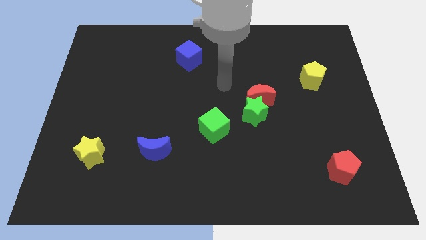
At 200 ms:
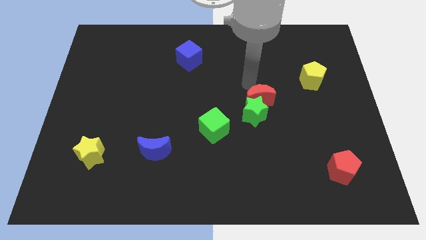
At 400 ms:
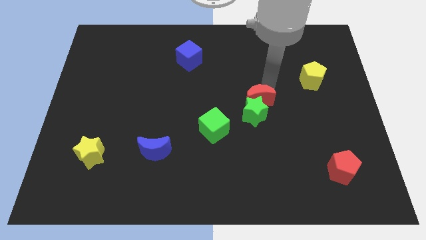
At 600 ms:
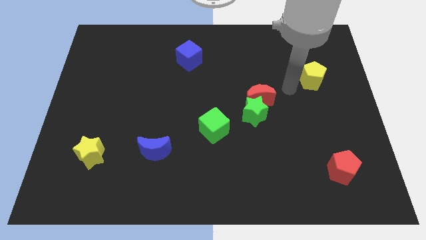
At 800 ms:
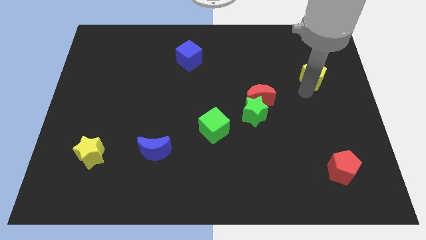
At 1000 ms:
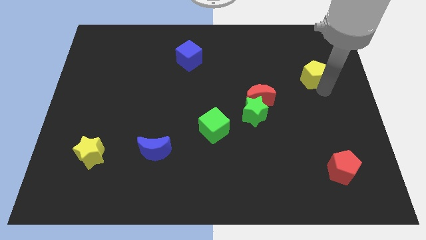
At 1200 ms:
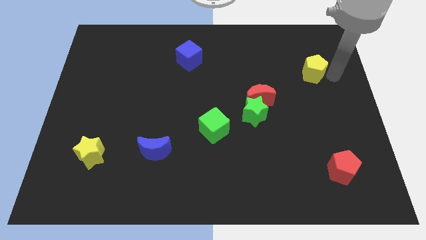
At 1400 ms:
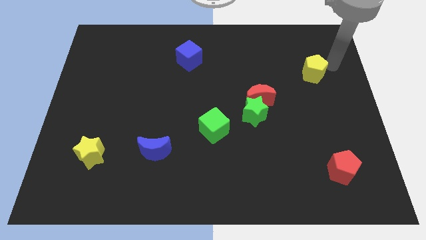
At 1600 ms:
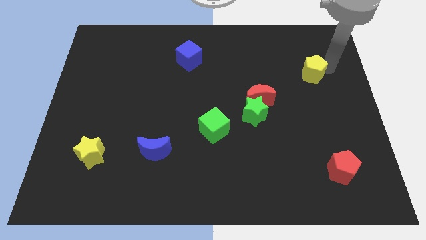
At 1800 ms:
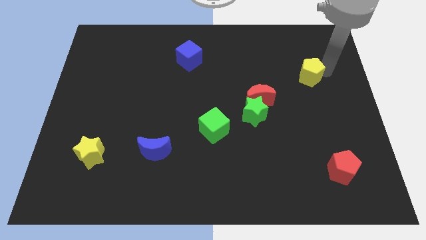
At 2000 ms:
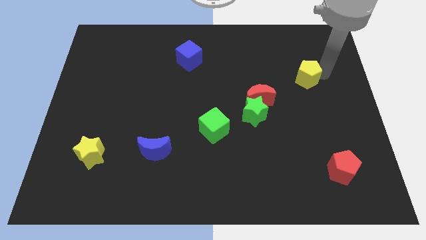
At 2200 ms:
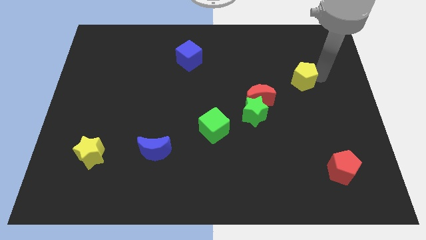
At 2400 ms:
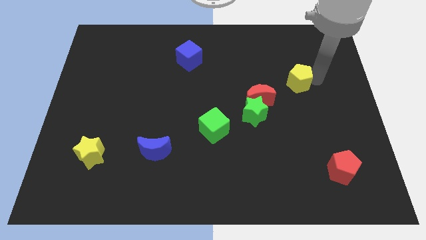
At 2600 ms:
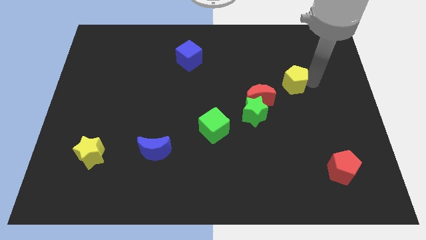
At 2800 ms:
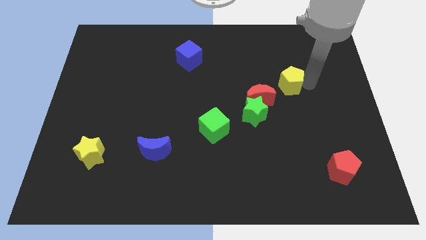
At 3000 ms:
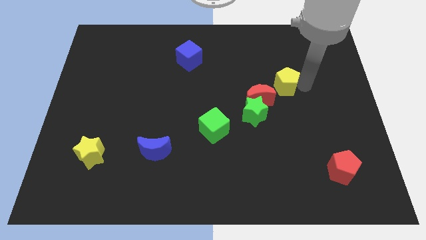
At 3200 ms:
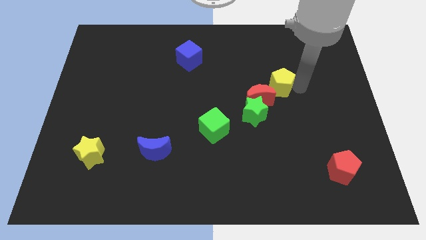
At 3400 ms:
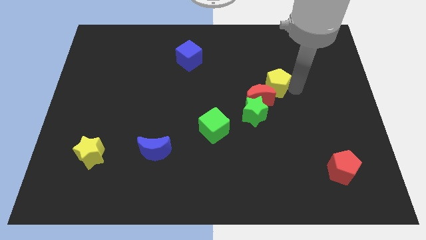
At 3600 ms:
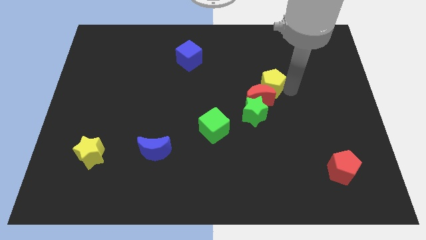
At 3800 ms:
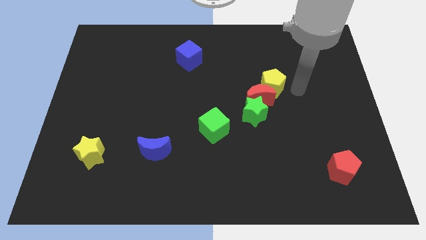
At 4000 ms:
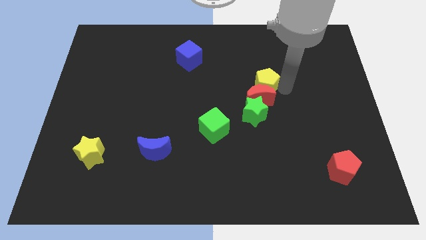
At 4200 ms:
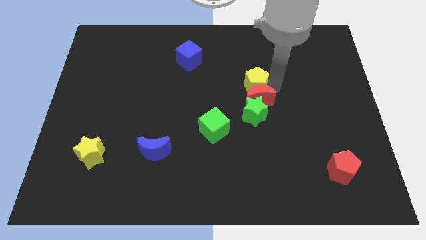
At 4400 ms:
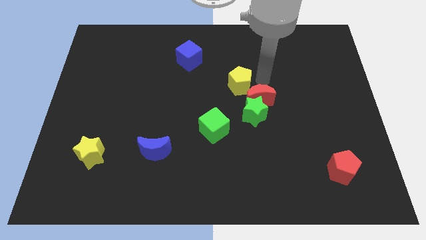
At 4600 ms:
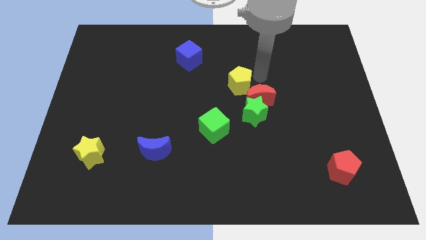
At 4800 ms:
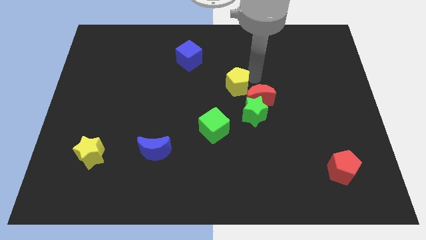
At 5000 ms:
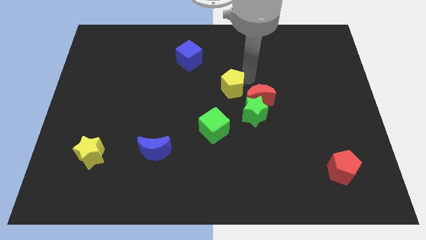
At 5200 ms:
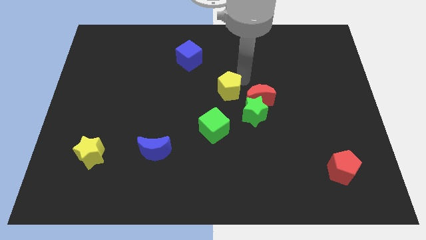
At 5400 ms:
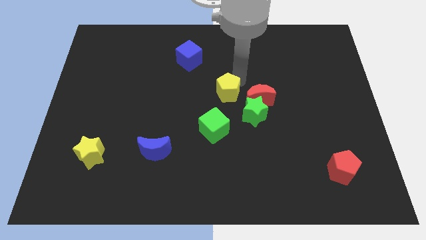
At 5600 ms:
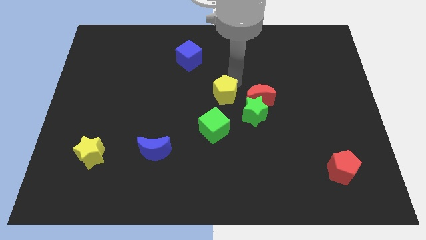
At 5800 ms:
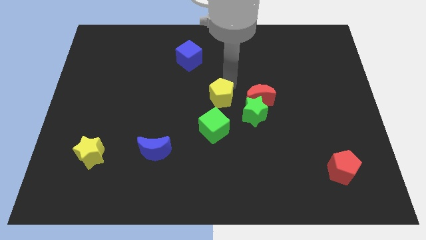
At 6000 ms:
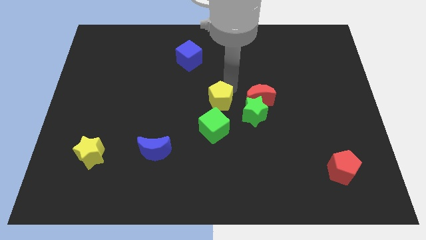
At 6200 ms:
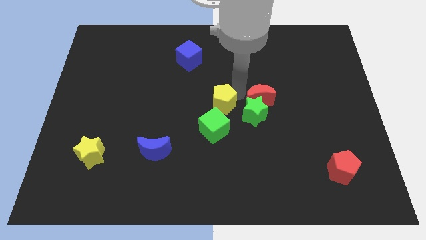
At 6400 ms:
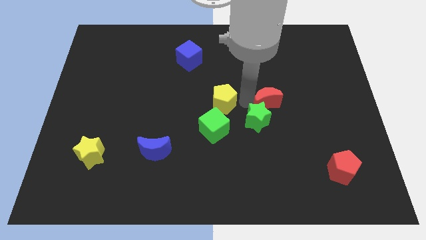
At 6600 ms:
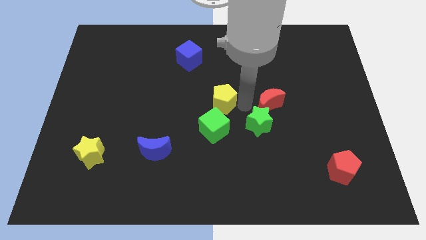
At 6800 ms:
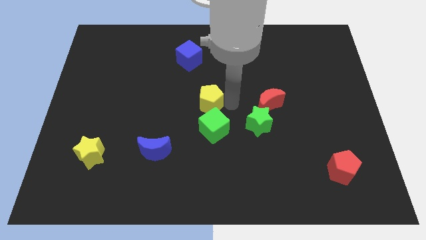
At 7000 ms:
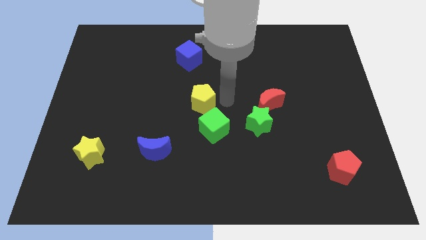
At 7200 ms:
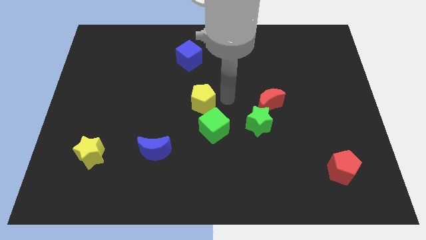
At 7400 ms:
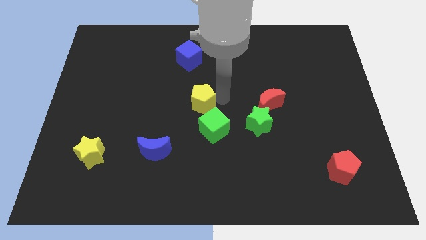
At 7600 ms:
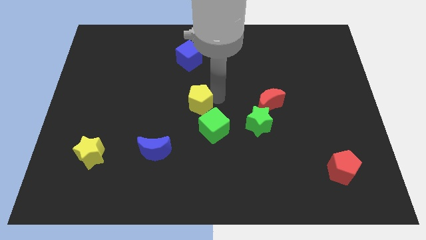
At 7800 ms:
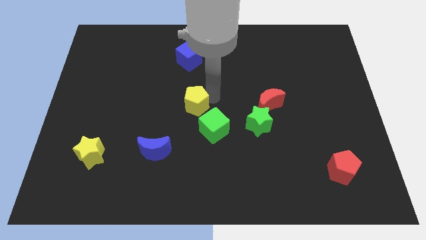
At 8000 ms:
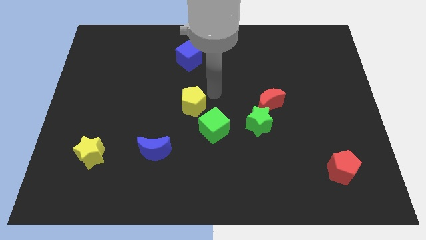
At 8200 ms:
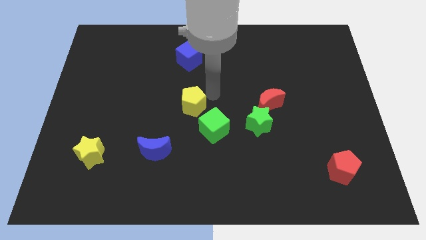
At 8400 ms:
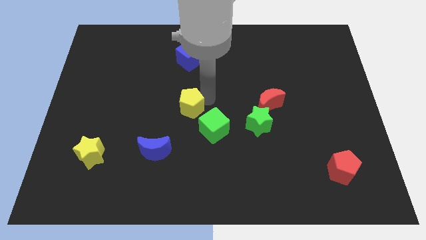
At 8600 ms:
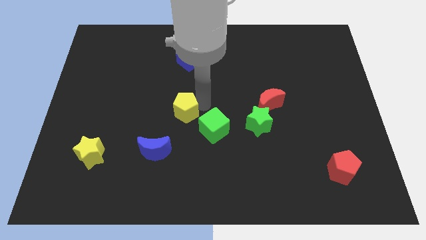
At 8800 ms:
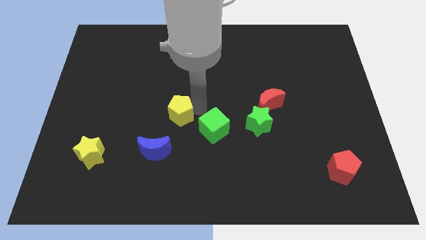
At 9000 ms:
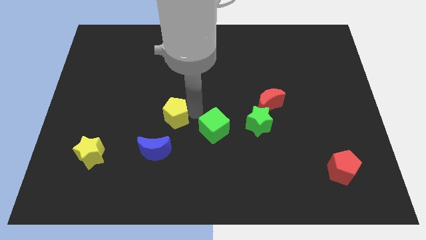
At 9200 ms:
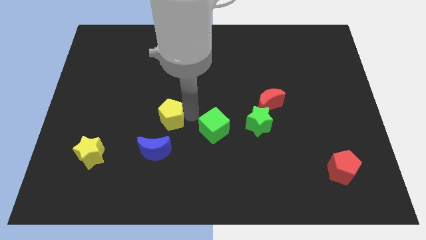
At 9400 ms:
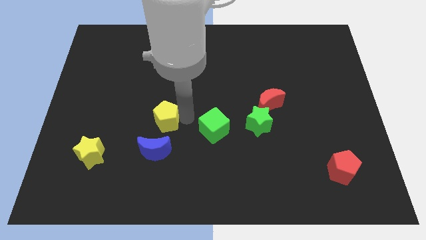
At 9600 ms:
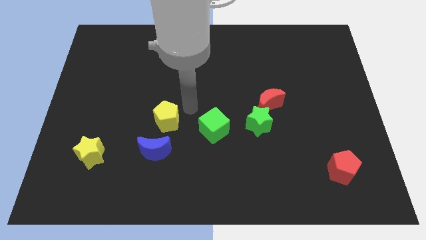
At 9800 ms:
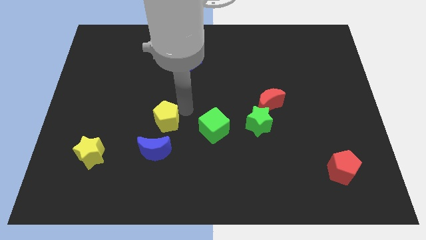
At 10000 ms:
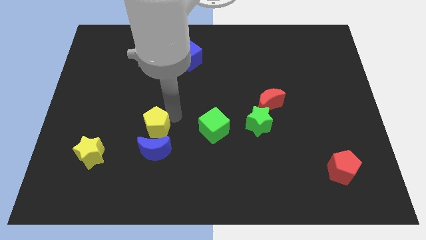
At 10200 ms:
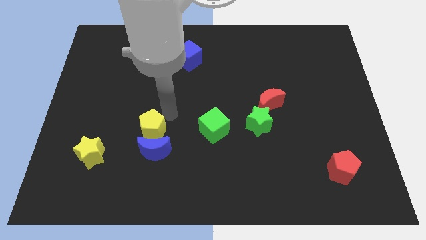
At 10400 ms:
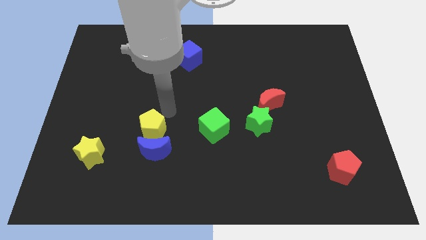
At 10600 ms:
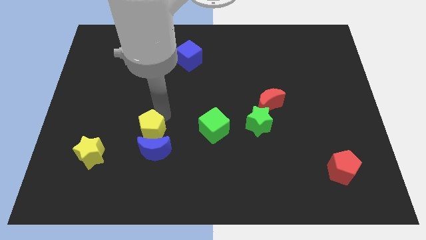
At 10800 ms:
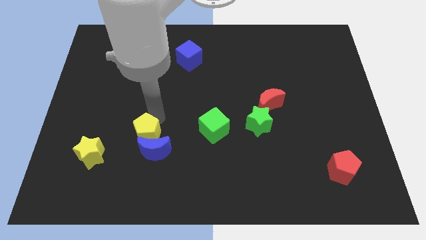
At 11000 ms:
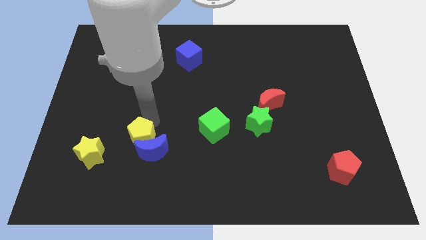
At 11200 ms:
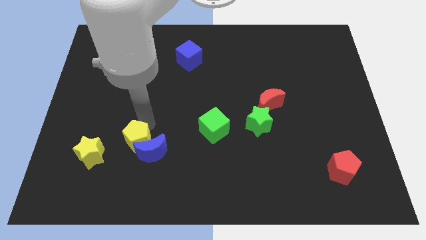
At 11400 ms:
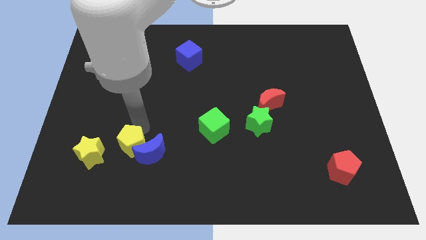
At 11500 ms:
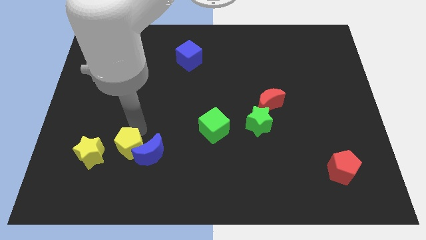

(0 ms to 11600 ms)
slide the yellow pentagon diagonally down and to the left of the blue moon
